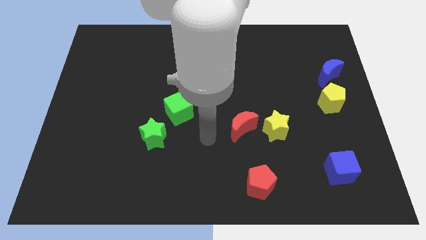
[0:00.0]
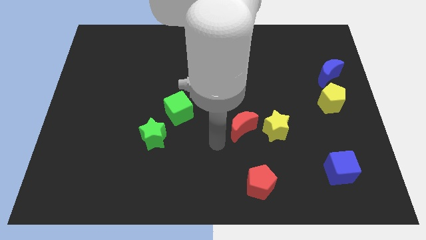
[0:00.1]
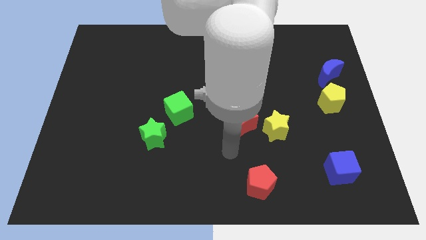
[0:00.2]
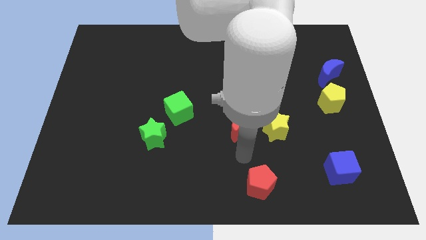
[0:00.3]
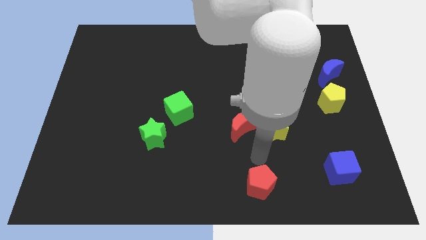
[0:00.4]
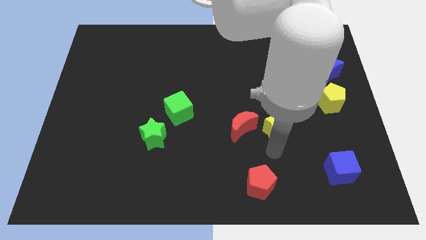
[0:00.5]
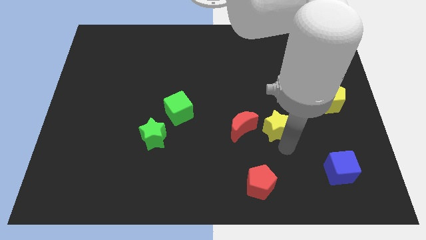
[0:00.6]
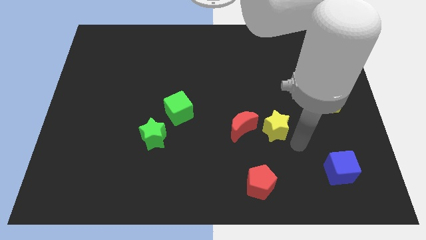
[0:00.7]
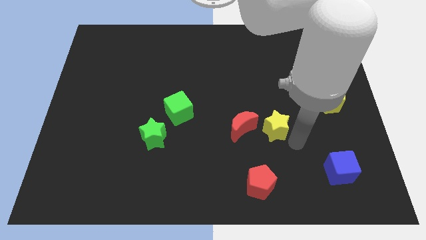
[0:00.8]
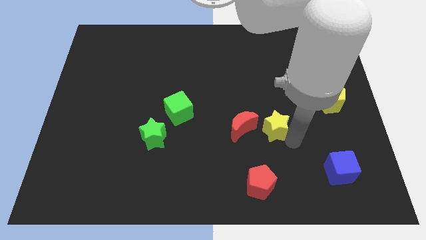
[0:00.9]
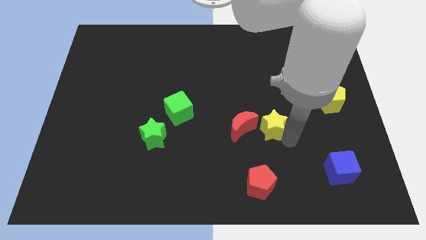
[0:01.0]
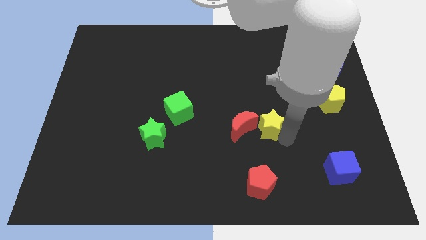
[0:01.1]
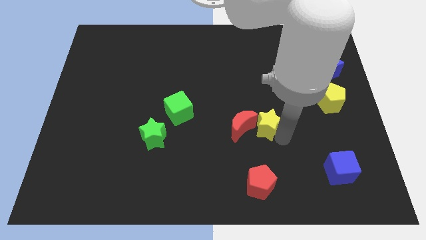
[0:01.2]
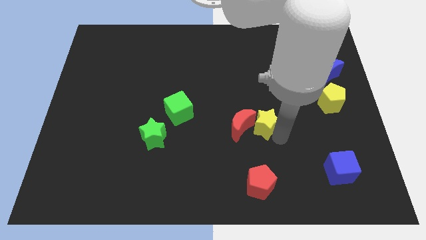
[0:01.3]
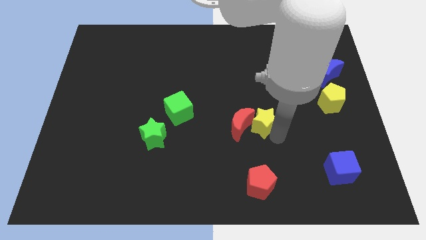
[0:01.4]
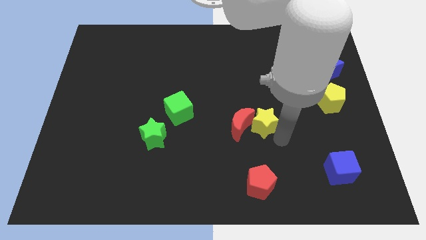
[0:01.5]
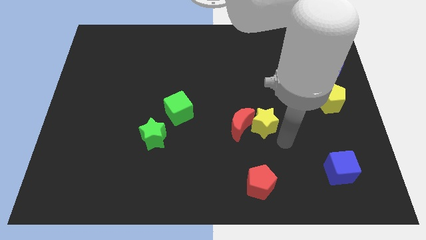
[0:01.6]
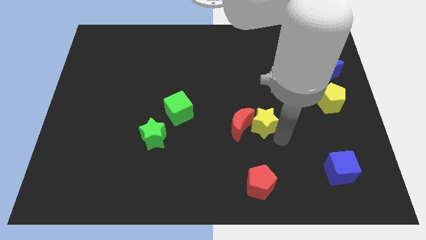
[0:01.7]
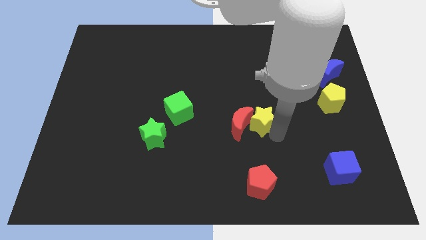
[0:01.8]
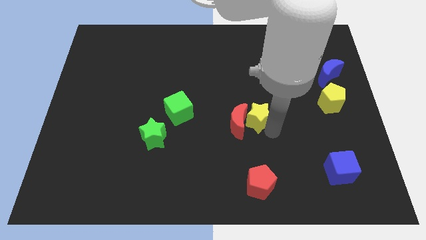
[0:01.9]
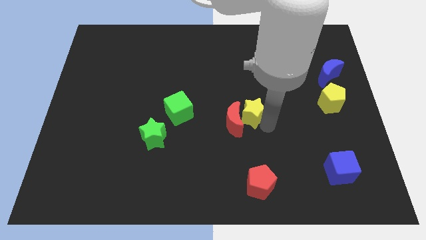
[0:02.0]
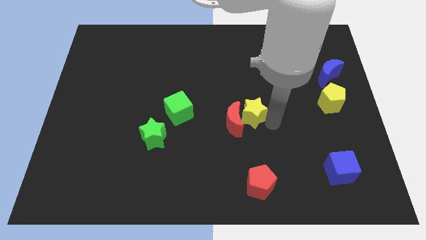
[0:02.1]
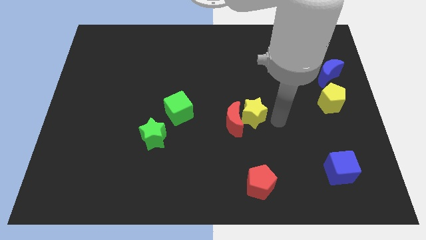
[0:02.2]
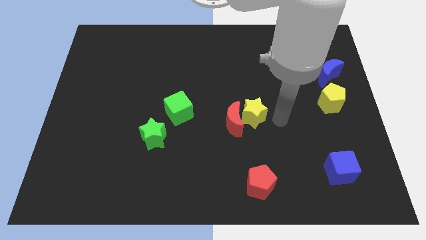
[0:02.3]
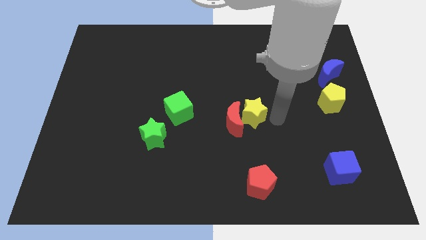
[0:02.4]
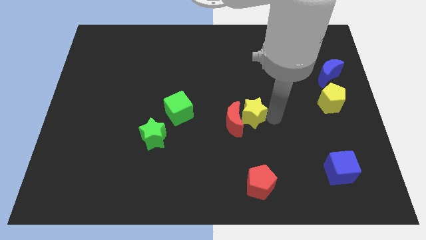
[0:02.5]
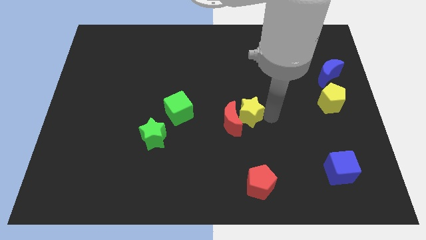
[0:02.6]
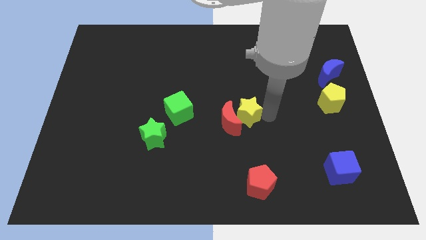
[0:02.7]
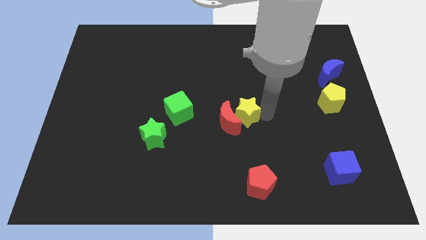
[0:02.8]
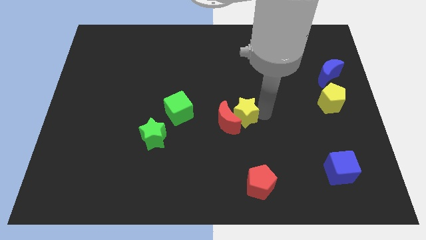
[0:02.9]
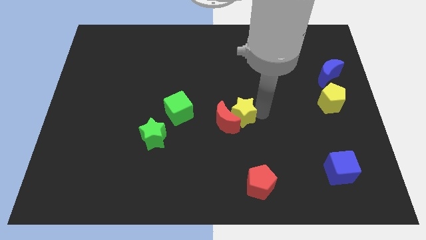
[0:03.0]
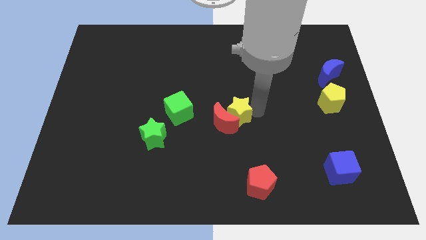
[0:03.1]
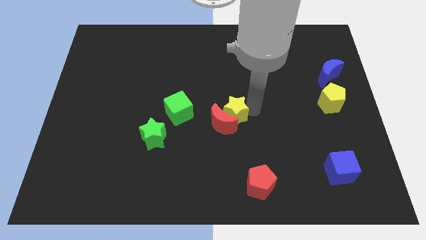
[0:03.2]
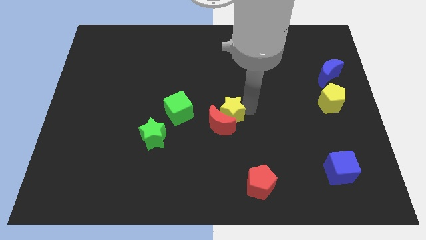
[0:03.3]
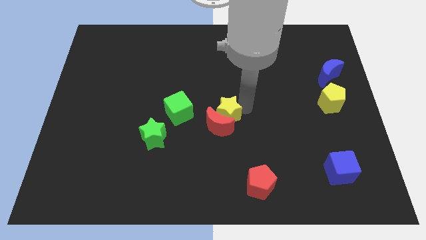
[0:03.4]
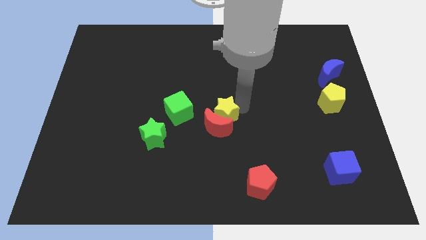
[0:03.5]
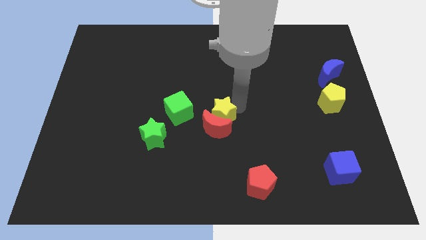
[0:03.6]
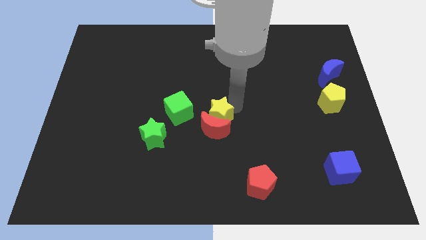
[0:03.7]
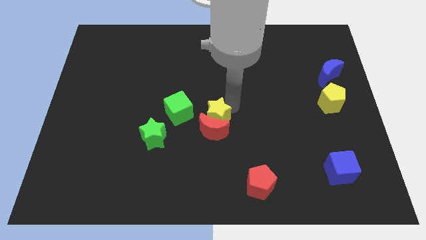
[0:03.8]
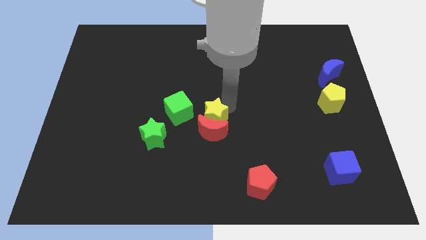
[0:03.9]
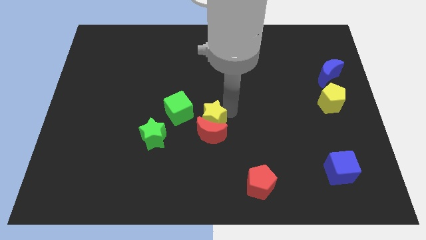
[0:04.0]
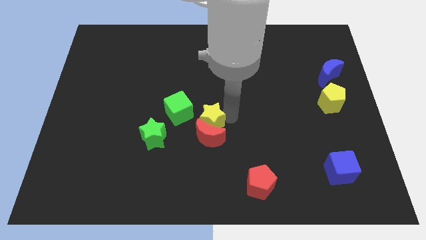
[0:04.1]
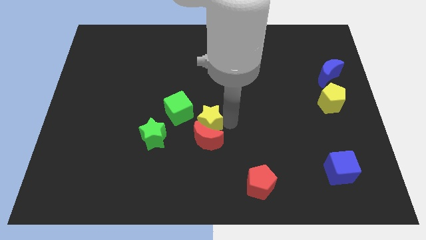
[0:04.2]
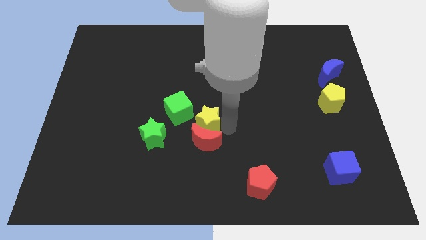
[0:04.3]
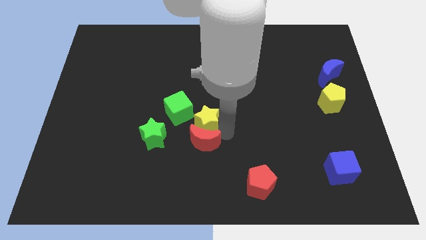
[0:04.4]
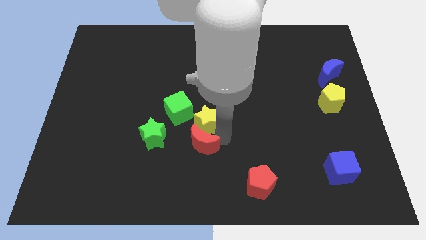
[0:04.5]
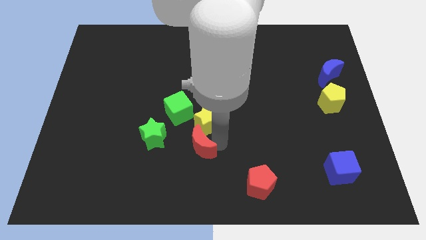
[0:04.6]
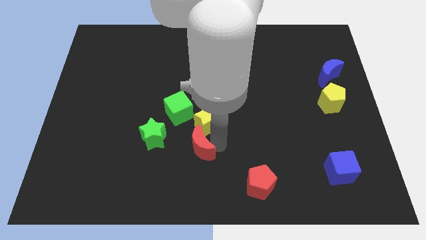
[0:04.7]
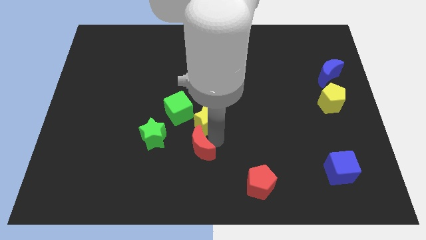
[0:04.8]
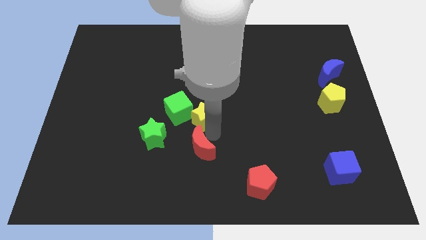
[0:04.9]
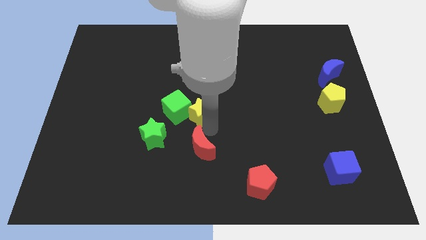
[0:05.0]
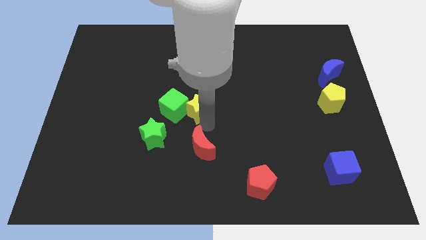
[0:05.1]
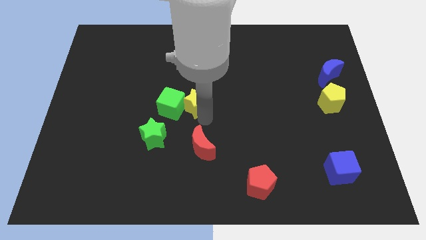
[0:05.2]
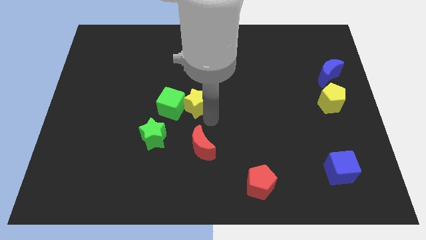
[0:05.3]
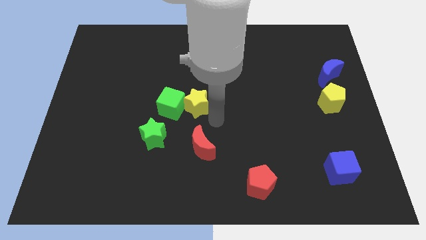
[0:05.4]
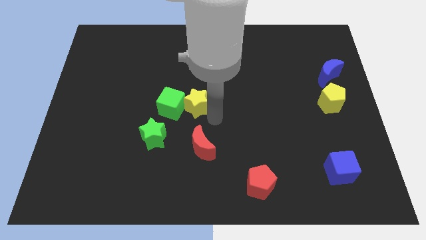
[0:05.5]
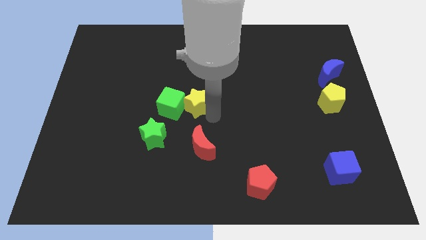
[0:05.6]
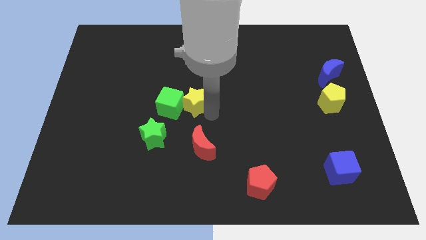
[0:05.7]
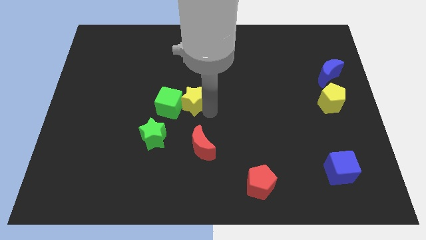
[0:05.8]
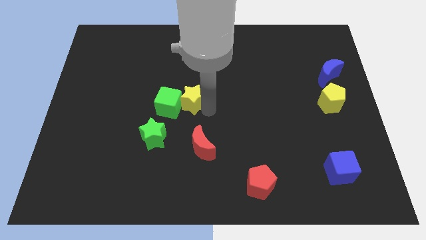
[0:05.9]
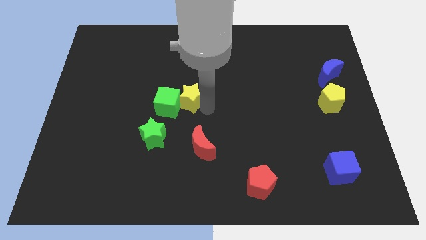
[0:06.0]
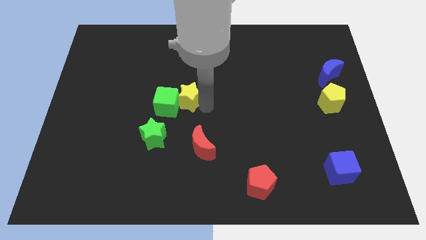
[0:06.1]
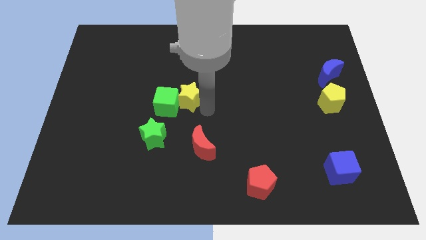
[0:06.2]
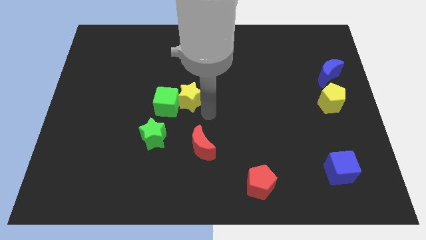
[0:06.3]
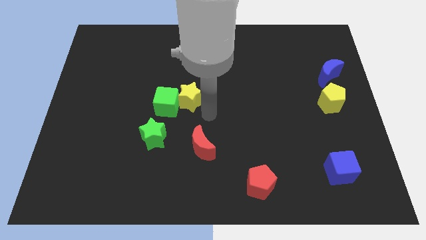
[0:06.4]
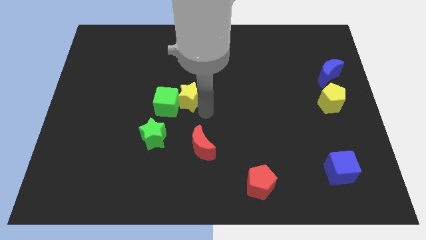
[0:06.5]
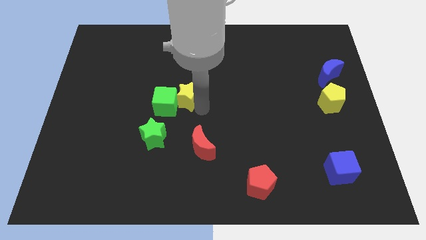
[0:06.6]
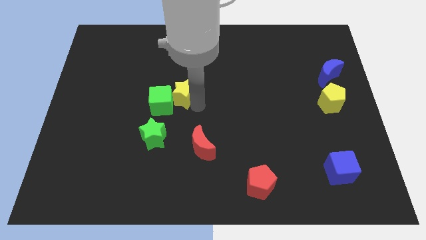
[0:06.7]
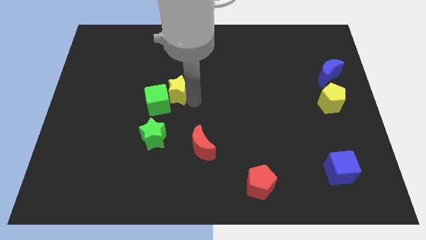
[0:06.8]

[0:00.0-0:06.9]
move the yellow star to the top of the green star

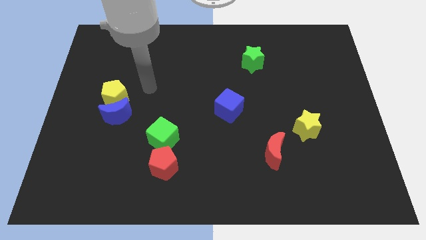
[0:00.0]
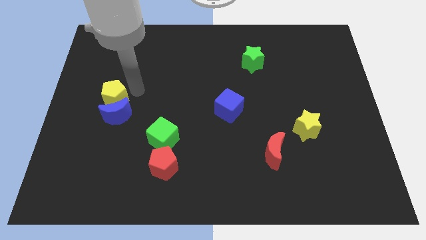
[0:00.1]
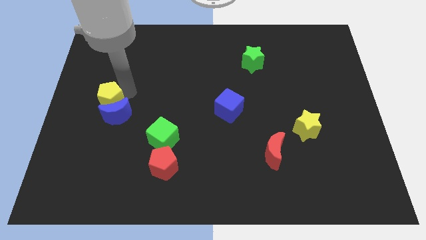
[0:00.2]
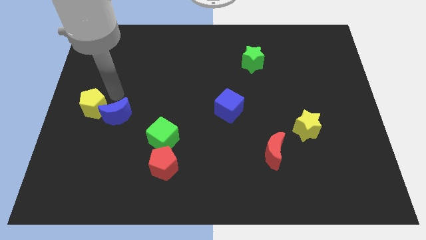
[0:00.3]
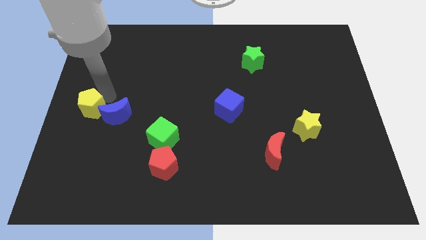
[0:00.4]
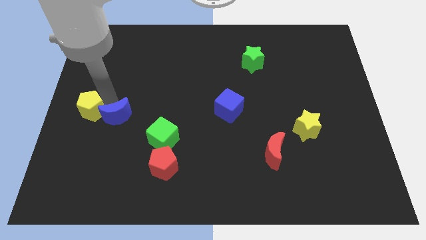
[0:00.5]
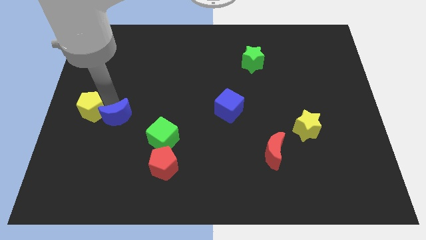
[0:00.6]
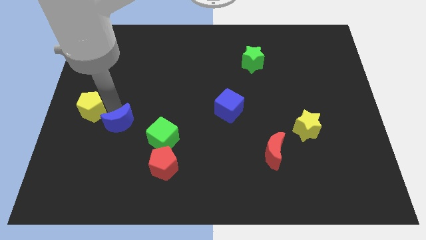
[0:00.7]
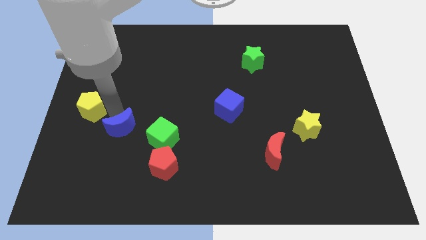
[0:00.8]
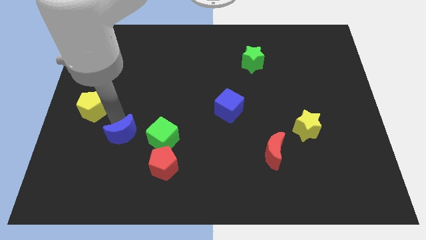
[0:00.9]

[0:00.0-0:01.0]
move the blue moon diagonally up and to the left of the red pentagon
